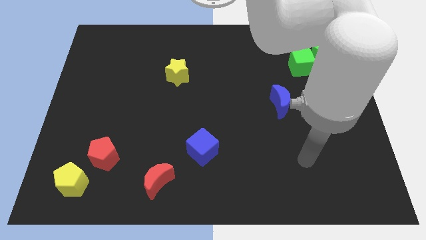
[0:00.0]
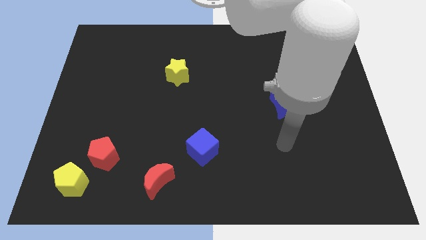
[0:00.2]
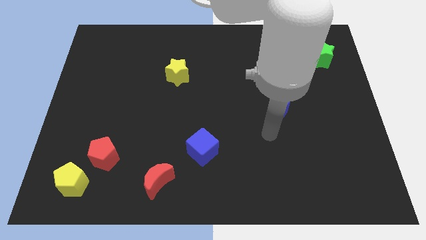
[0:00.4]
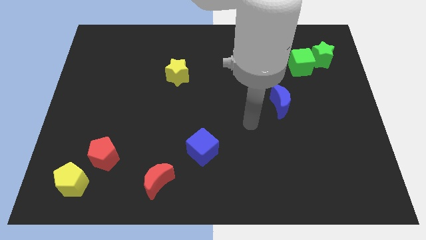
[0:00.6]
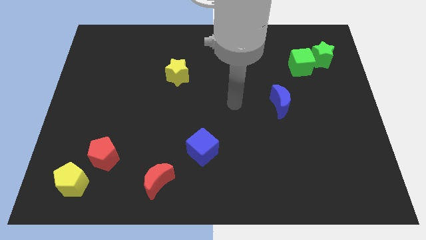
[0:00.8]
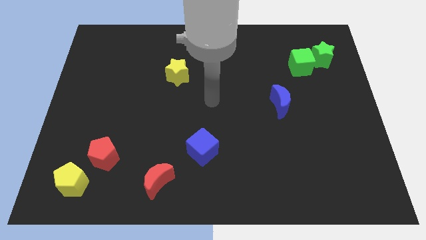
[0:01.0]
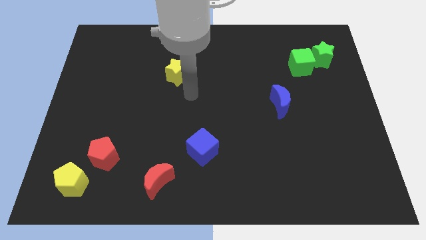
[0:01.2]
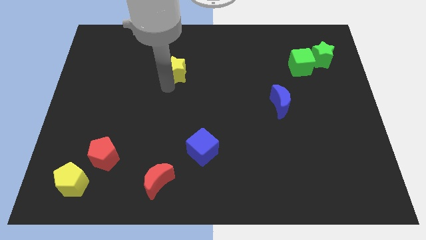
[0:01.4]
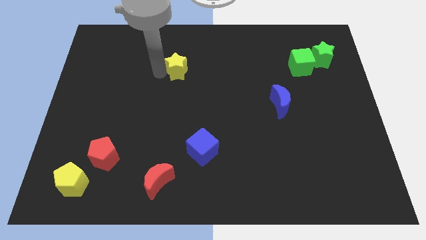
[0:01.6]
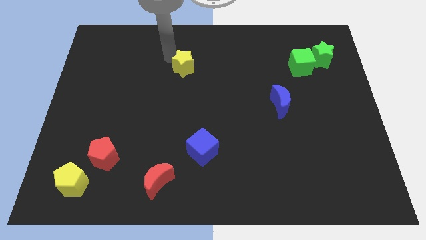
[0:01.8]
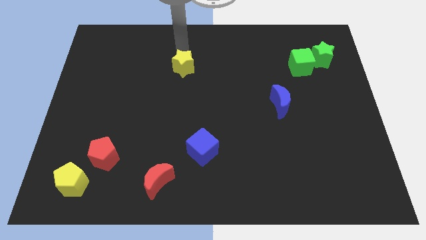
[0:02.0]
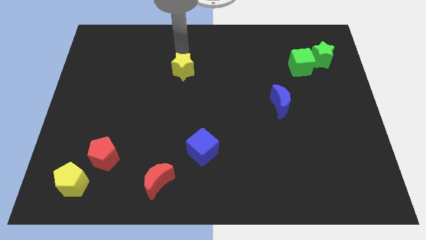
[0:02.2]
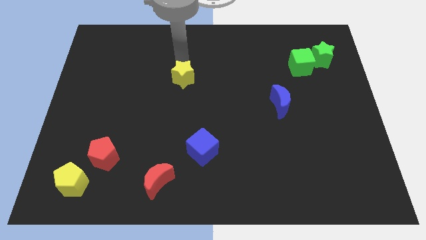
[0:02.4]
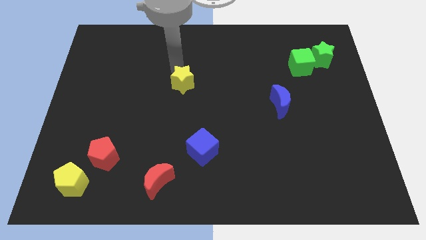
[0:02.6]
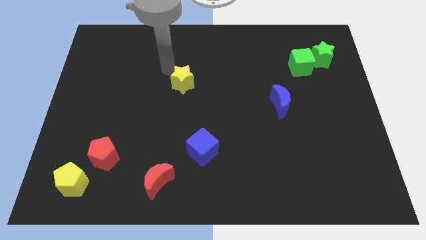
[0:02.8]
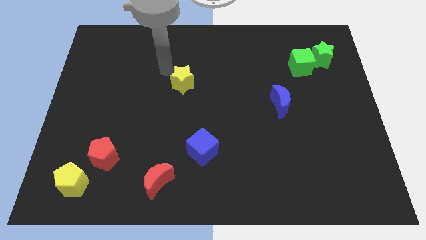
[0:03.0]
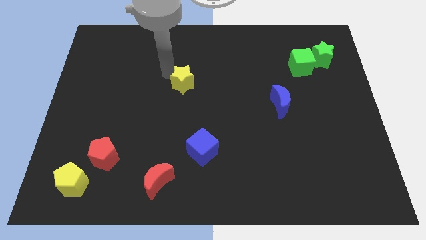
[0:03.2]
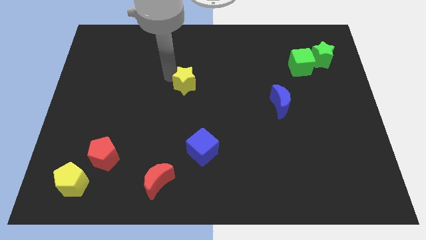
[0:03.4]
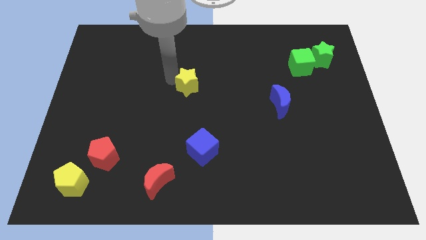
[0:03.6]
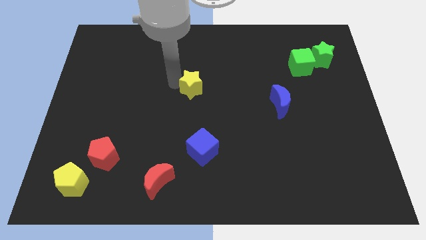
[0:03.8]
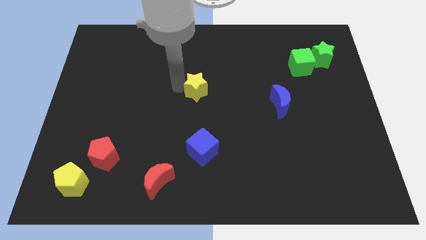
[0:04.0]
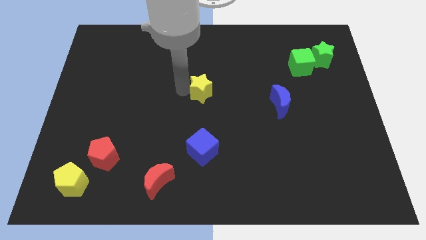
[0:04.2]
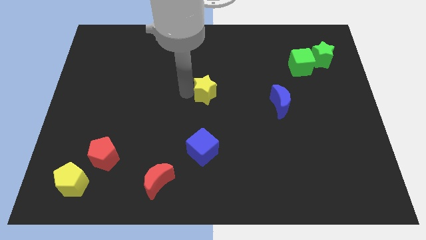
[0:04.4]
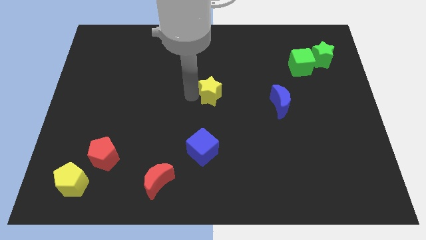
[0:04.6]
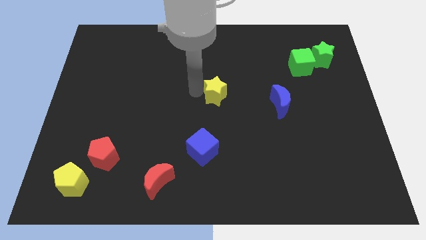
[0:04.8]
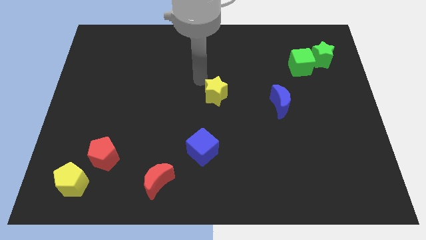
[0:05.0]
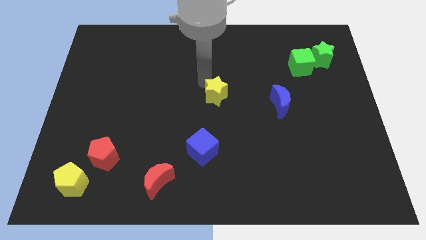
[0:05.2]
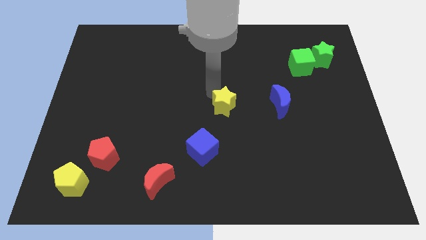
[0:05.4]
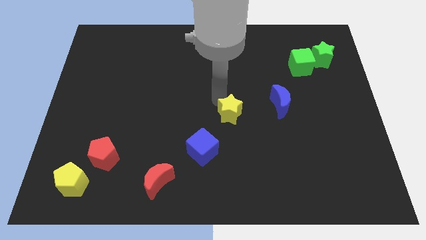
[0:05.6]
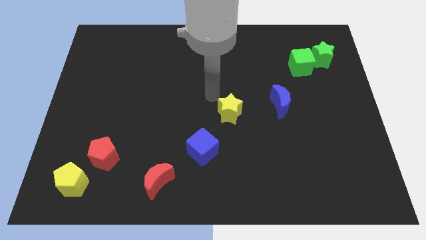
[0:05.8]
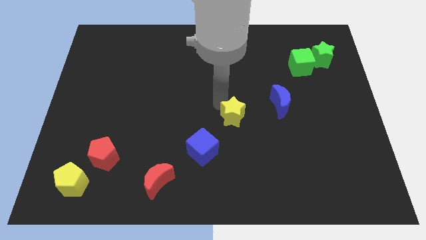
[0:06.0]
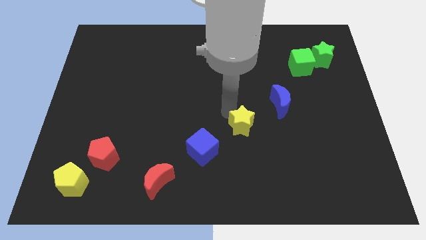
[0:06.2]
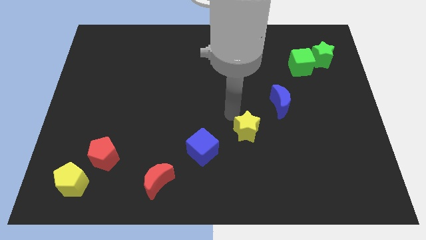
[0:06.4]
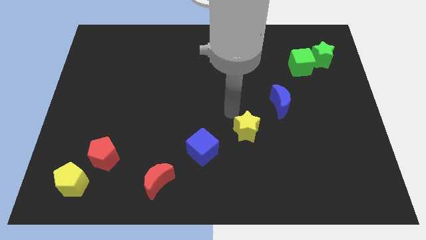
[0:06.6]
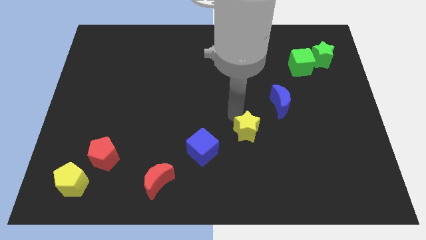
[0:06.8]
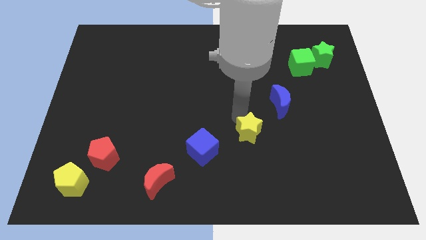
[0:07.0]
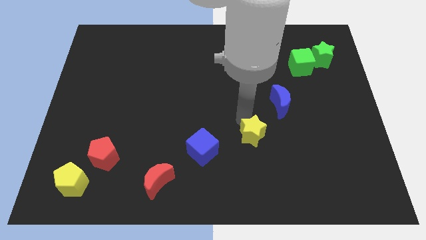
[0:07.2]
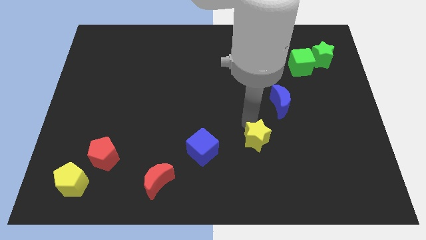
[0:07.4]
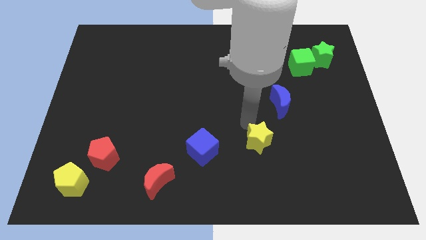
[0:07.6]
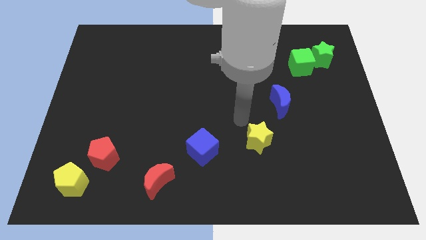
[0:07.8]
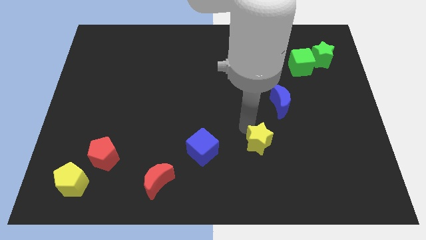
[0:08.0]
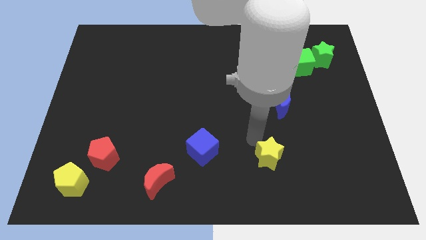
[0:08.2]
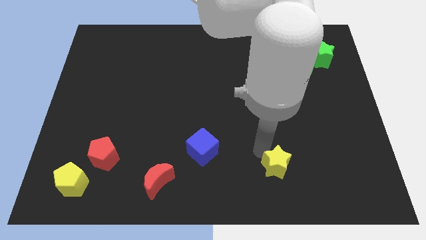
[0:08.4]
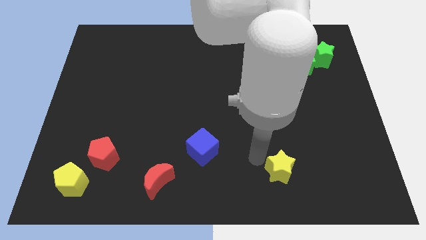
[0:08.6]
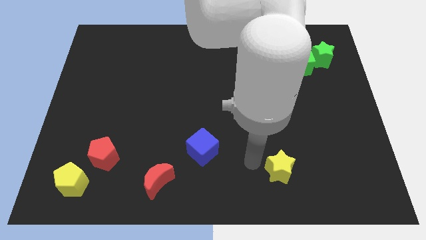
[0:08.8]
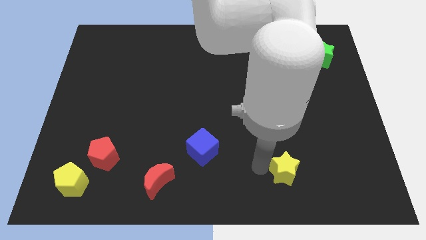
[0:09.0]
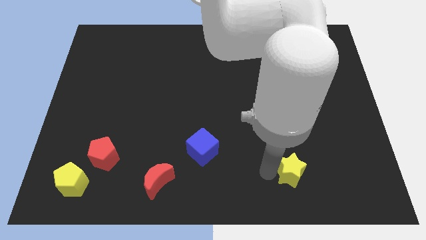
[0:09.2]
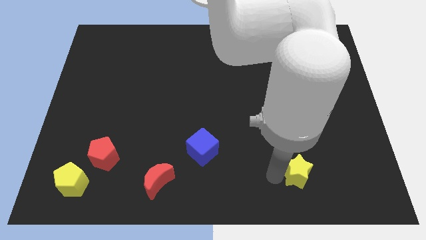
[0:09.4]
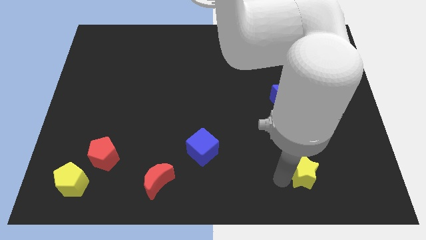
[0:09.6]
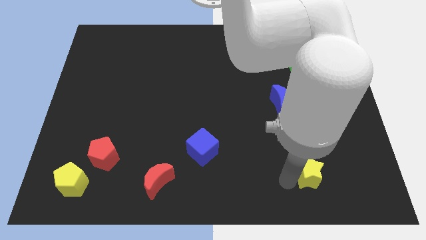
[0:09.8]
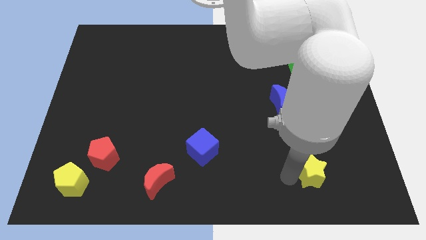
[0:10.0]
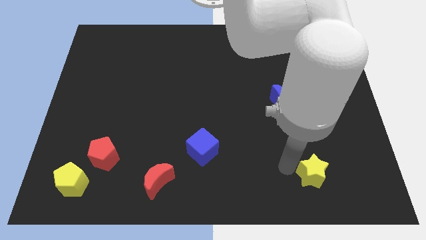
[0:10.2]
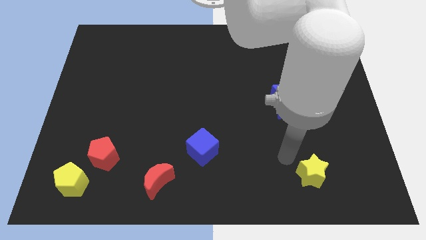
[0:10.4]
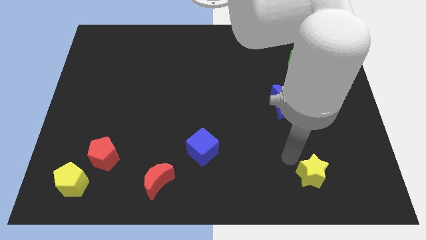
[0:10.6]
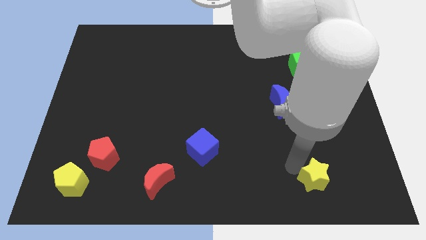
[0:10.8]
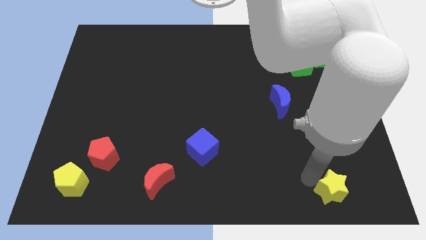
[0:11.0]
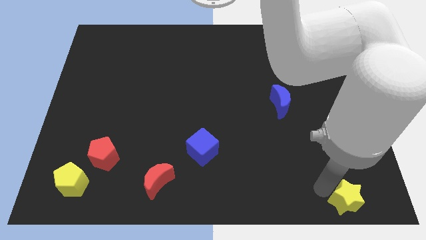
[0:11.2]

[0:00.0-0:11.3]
slide the yellow star to the bottom right
